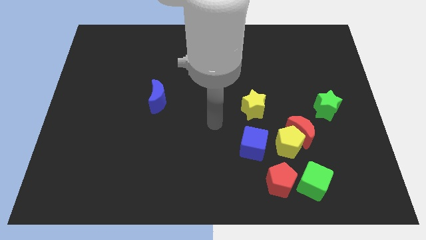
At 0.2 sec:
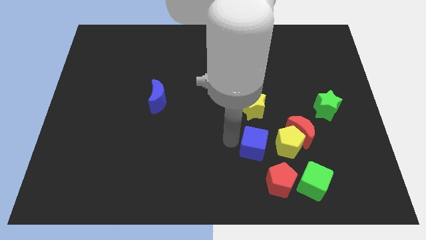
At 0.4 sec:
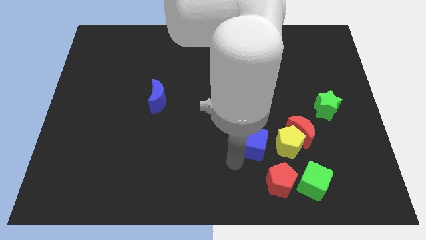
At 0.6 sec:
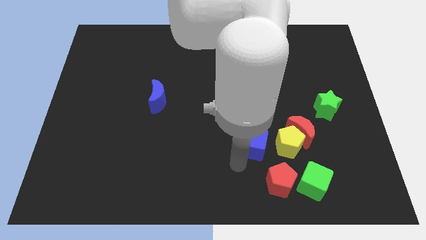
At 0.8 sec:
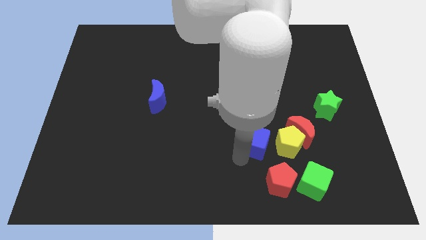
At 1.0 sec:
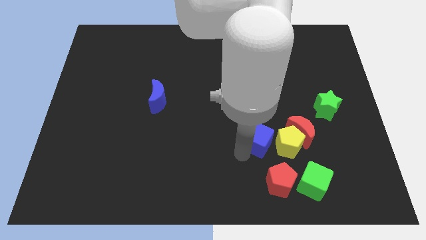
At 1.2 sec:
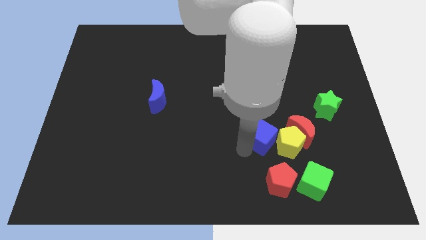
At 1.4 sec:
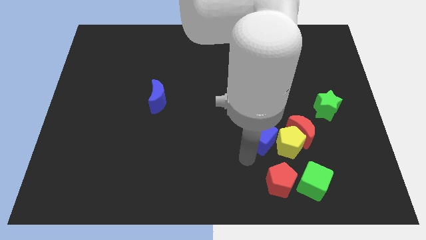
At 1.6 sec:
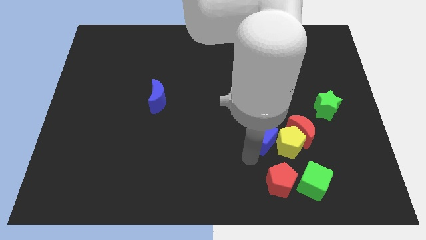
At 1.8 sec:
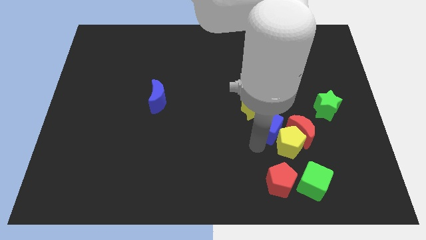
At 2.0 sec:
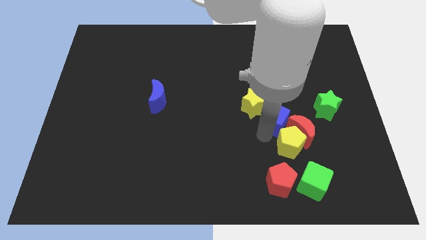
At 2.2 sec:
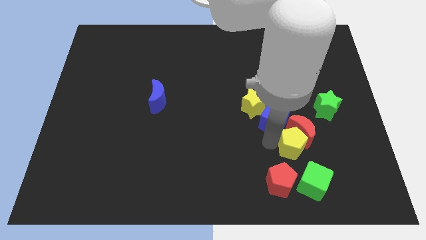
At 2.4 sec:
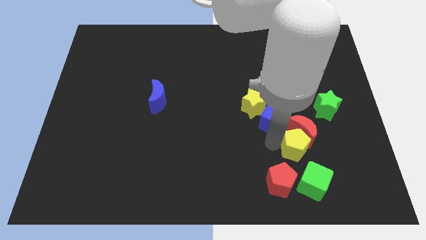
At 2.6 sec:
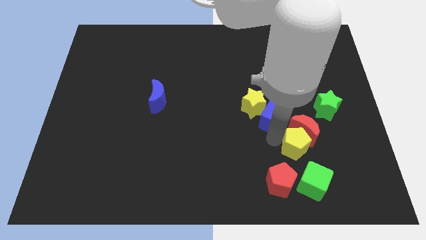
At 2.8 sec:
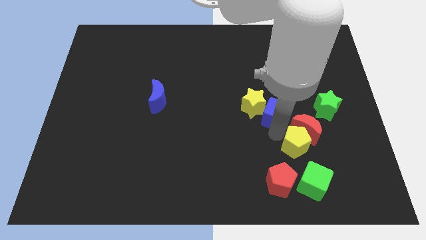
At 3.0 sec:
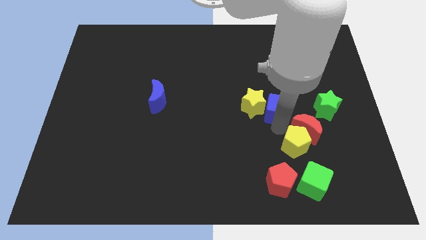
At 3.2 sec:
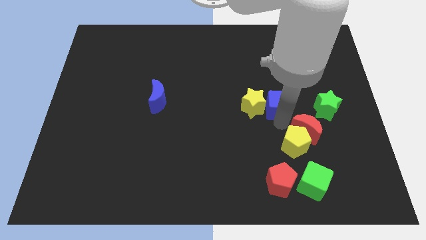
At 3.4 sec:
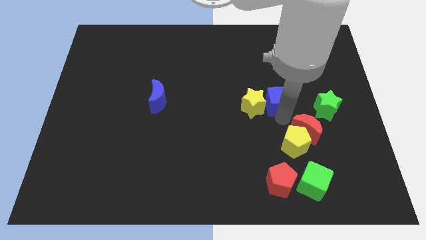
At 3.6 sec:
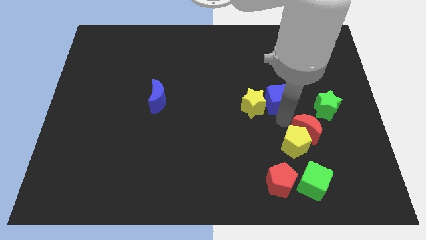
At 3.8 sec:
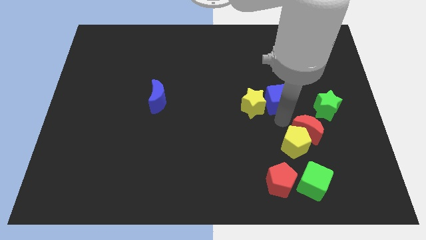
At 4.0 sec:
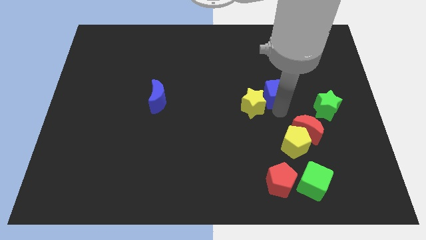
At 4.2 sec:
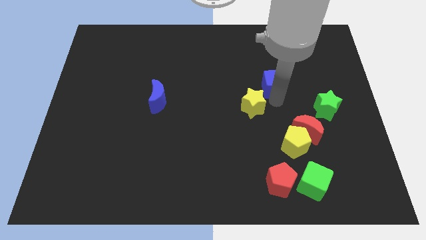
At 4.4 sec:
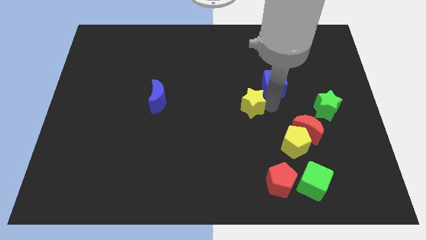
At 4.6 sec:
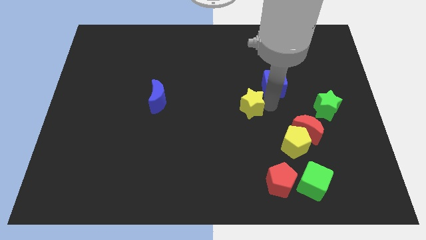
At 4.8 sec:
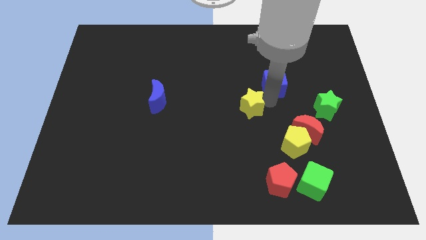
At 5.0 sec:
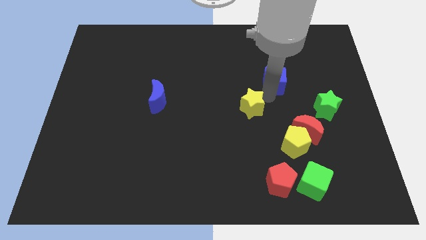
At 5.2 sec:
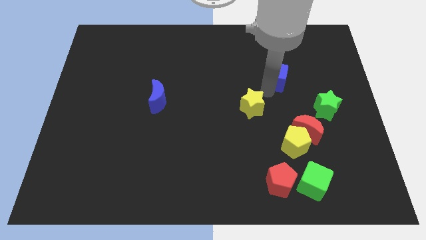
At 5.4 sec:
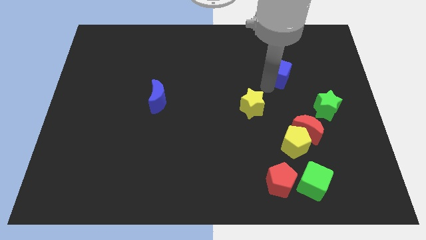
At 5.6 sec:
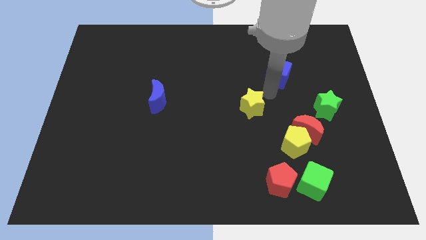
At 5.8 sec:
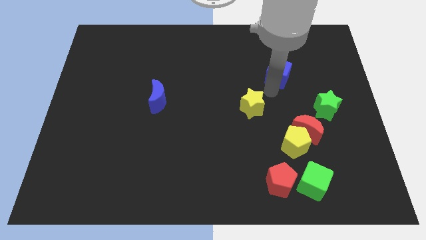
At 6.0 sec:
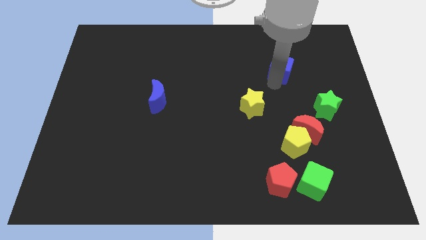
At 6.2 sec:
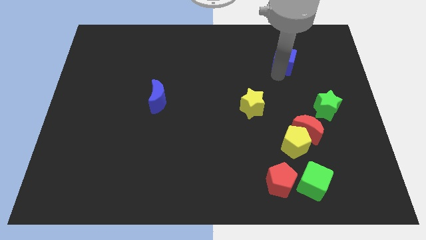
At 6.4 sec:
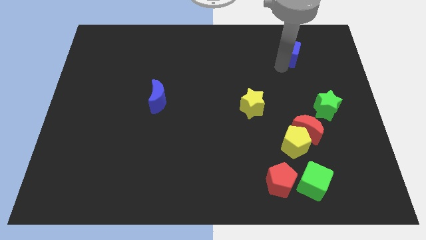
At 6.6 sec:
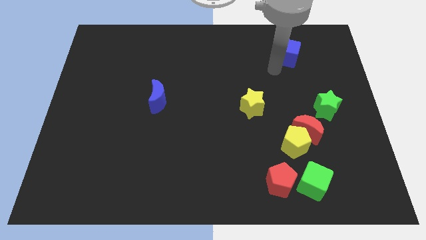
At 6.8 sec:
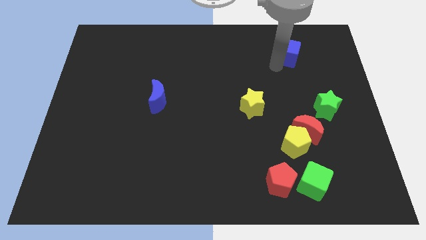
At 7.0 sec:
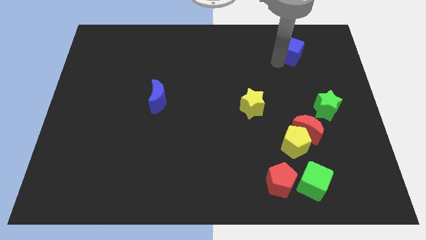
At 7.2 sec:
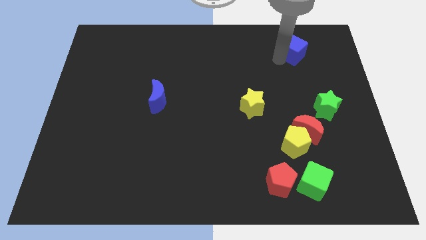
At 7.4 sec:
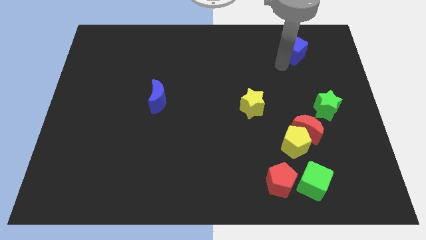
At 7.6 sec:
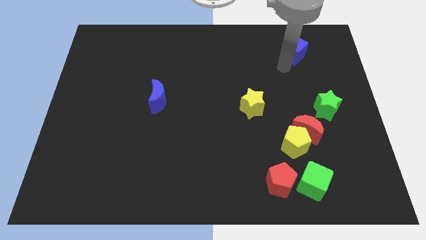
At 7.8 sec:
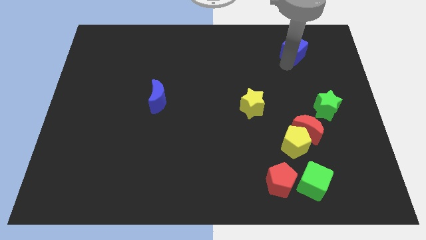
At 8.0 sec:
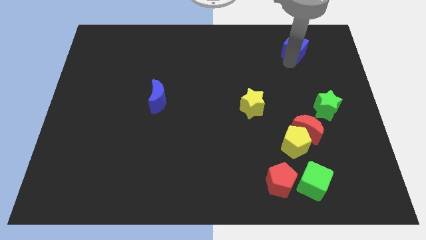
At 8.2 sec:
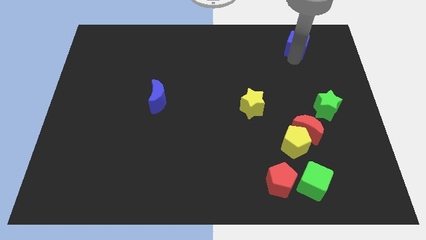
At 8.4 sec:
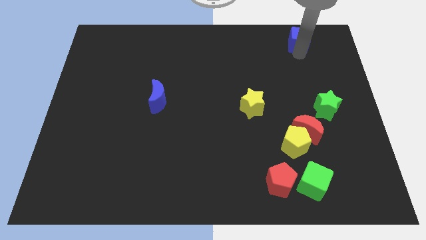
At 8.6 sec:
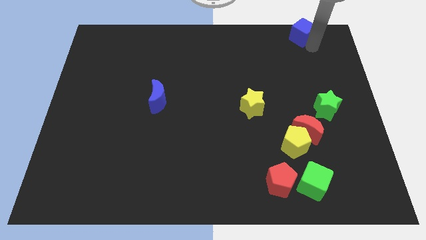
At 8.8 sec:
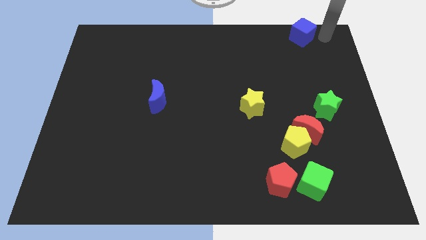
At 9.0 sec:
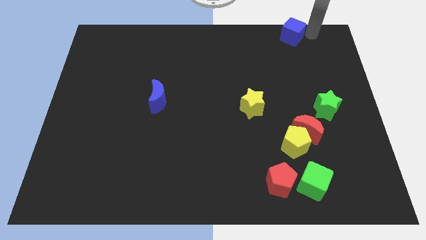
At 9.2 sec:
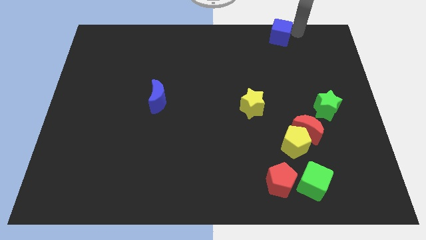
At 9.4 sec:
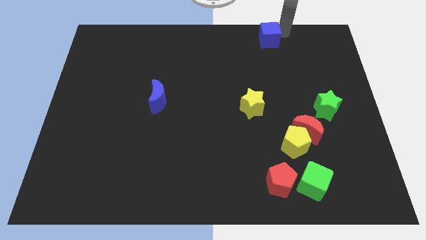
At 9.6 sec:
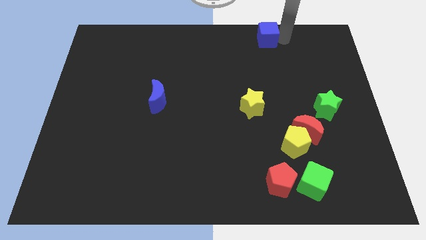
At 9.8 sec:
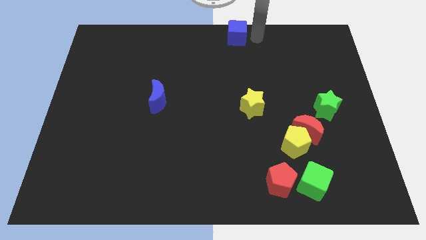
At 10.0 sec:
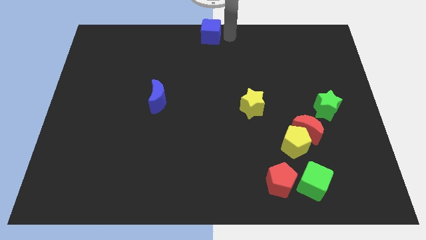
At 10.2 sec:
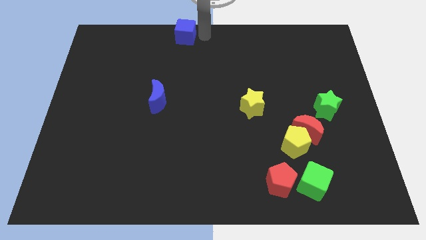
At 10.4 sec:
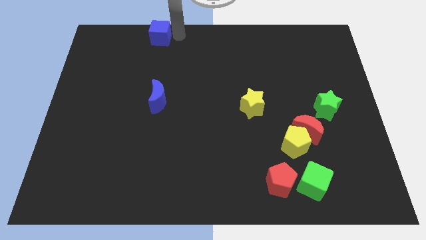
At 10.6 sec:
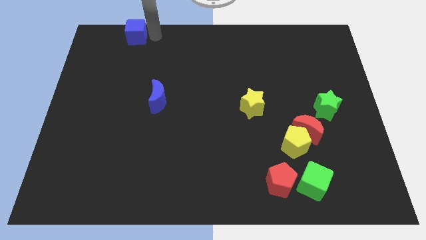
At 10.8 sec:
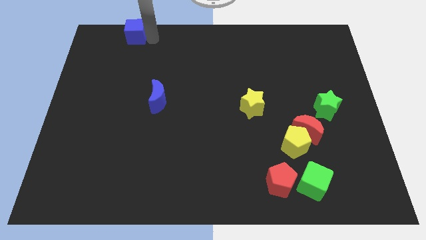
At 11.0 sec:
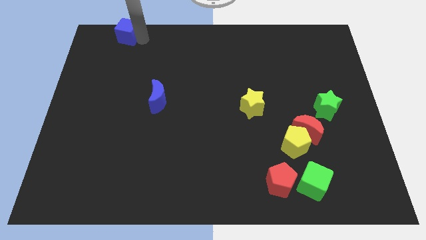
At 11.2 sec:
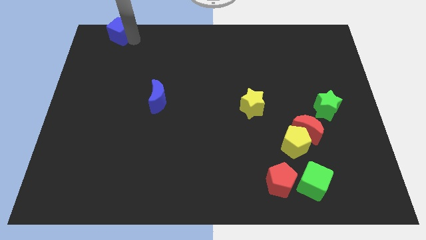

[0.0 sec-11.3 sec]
slide the blue cube to the top left corner

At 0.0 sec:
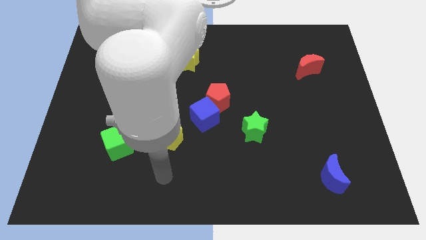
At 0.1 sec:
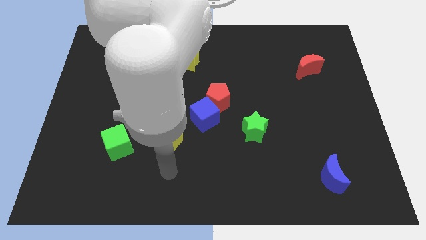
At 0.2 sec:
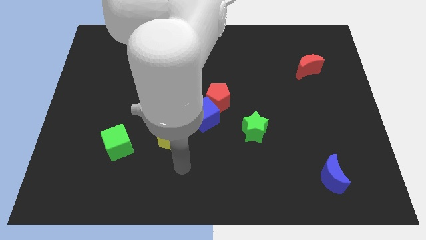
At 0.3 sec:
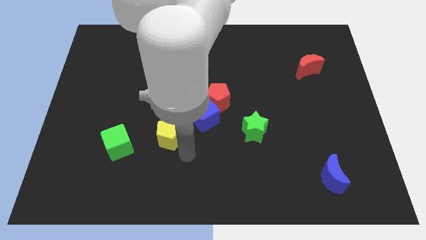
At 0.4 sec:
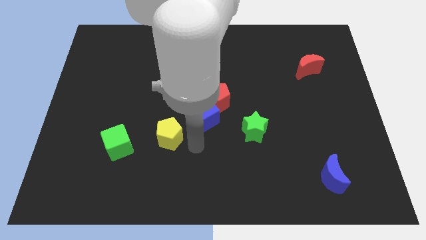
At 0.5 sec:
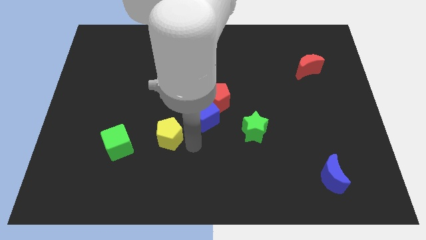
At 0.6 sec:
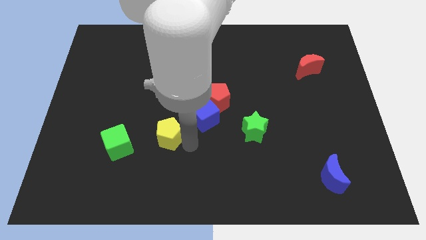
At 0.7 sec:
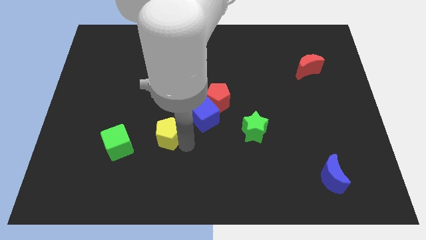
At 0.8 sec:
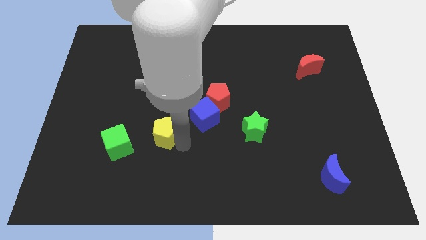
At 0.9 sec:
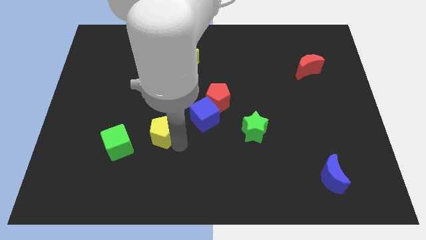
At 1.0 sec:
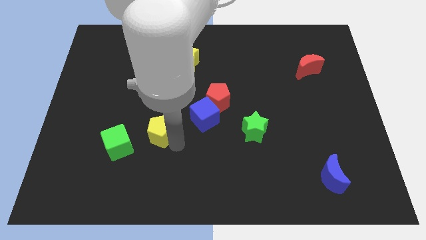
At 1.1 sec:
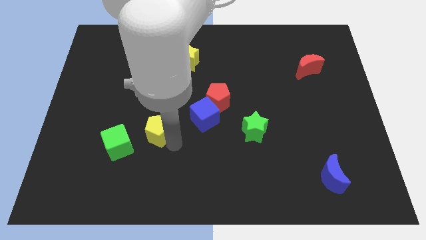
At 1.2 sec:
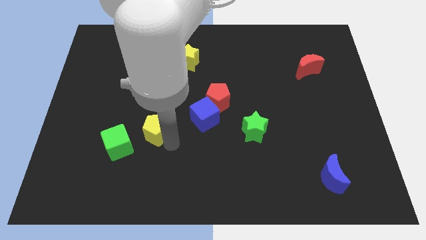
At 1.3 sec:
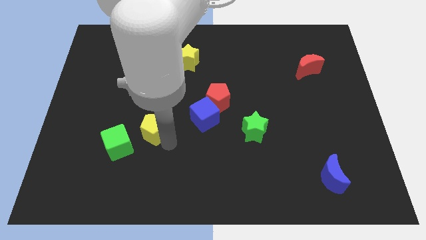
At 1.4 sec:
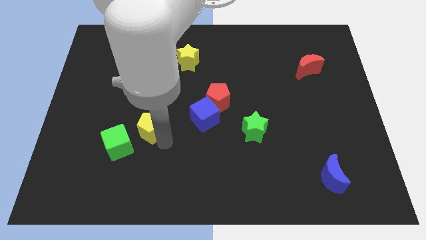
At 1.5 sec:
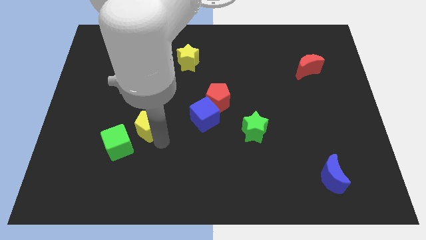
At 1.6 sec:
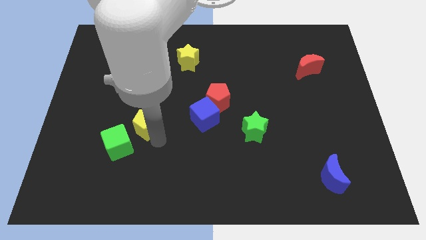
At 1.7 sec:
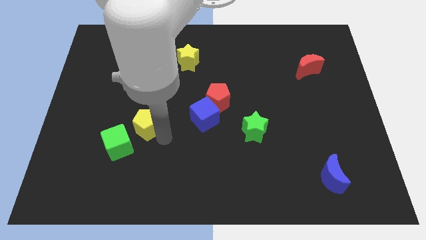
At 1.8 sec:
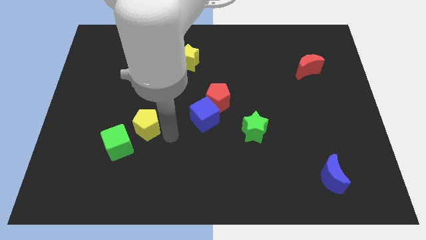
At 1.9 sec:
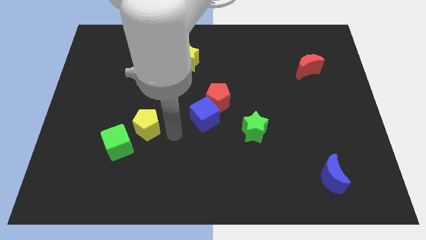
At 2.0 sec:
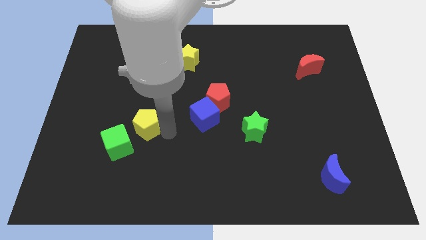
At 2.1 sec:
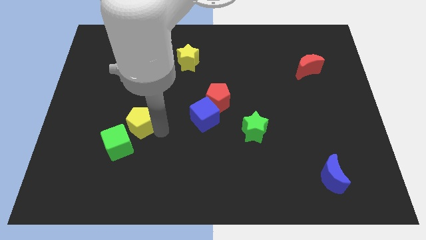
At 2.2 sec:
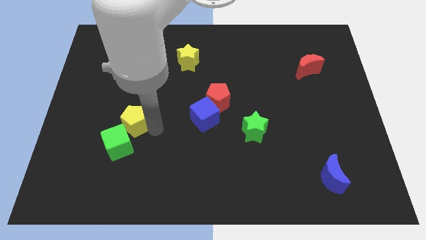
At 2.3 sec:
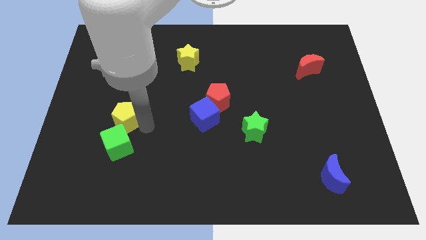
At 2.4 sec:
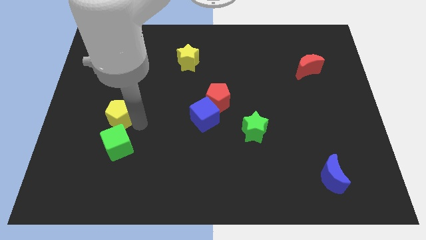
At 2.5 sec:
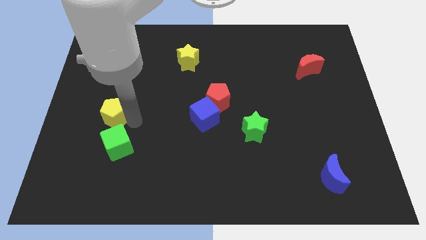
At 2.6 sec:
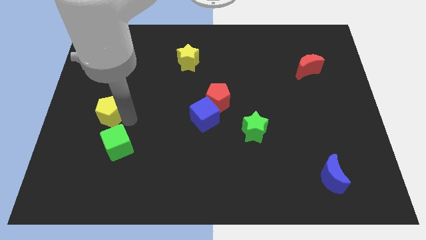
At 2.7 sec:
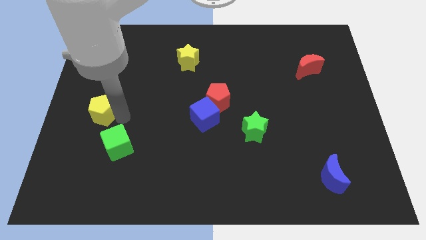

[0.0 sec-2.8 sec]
move the yellow pentagon to the left side of the board
